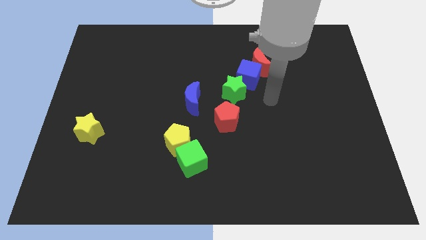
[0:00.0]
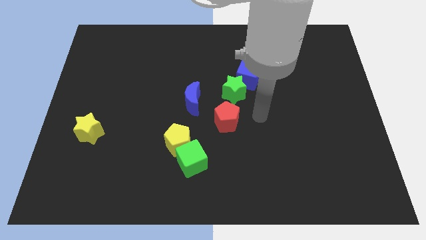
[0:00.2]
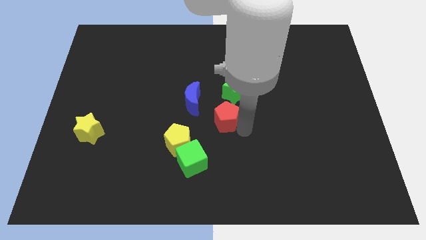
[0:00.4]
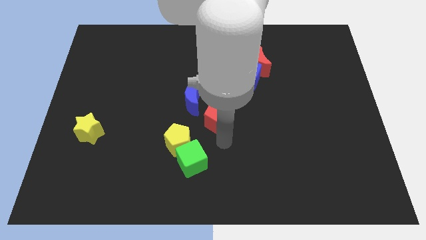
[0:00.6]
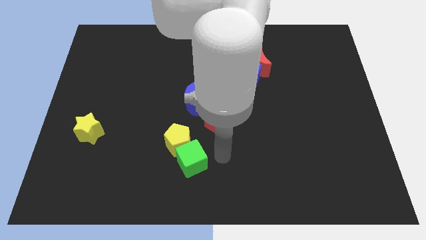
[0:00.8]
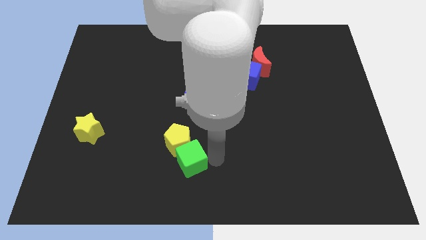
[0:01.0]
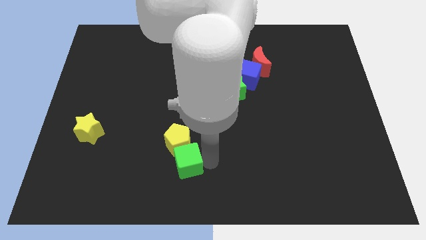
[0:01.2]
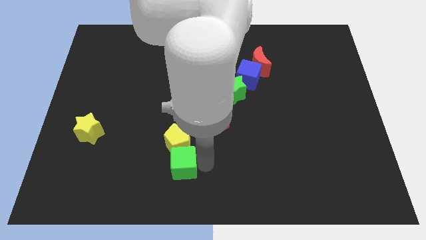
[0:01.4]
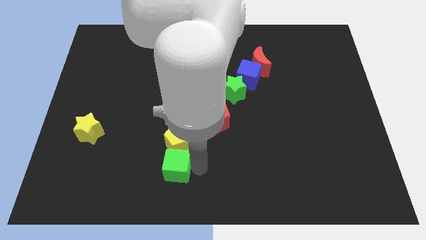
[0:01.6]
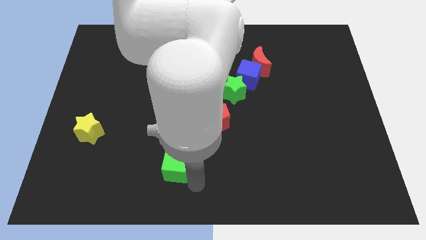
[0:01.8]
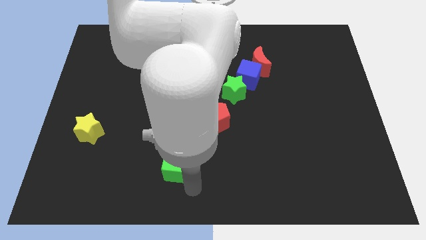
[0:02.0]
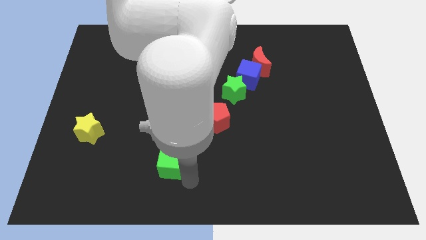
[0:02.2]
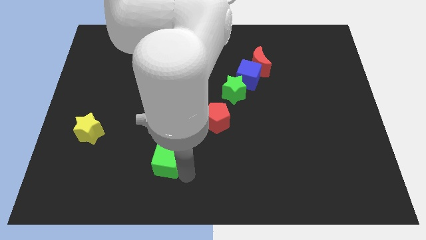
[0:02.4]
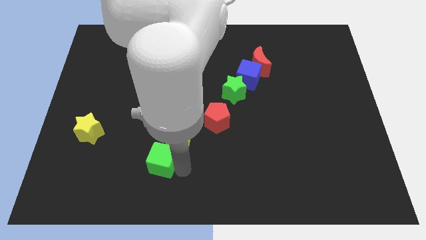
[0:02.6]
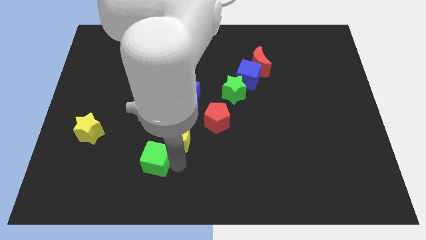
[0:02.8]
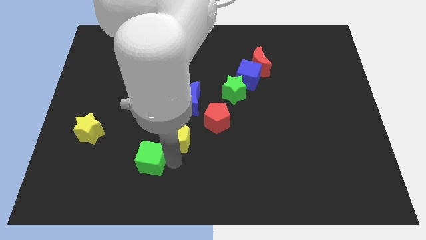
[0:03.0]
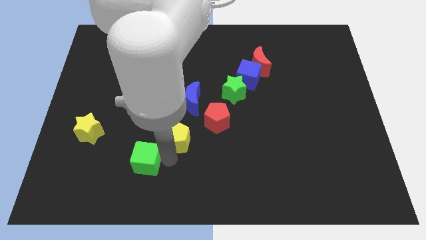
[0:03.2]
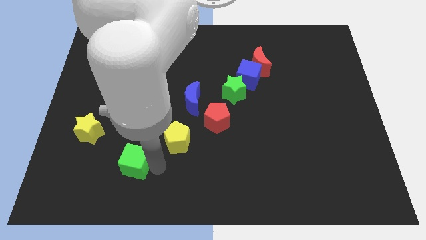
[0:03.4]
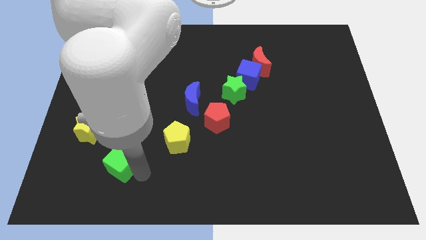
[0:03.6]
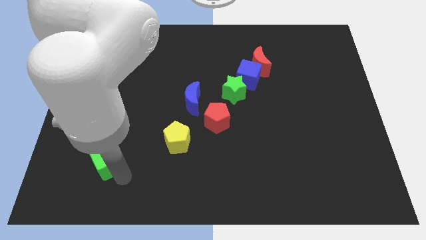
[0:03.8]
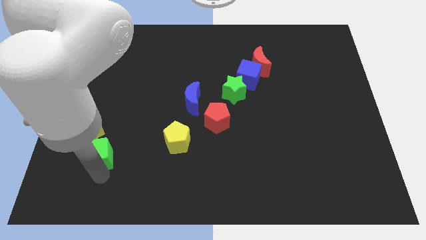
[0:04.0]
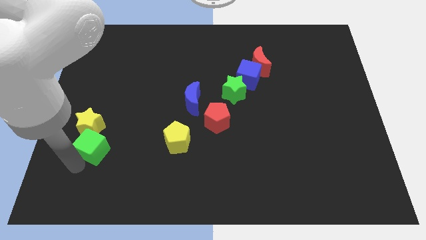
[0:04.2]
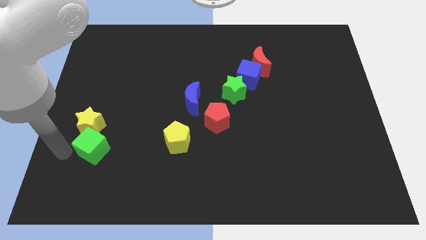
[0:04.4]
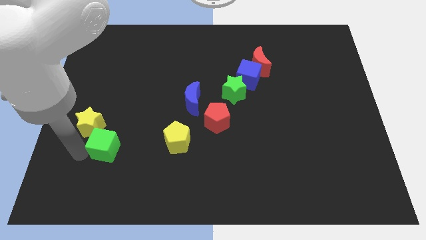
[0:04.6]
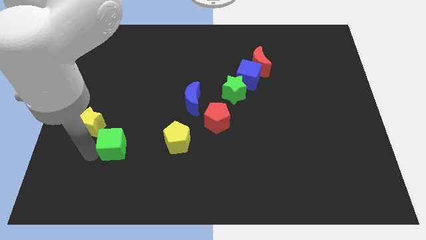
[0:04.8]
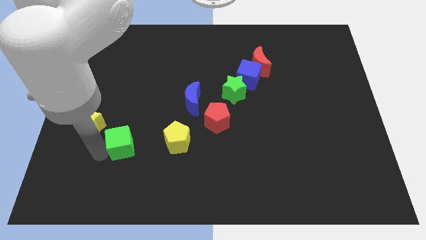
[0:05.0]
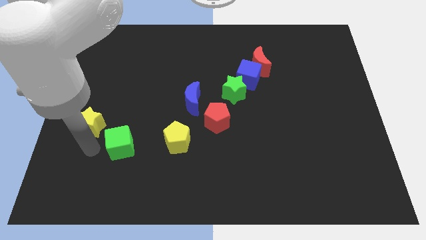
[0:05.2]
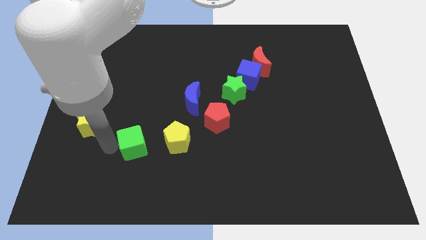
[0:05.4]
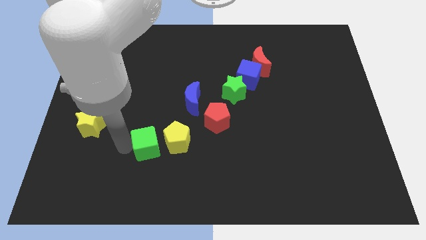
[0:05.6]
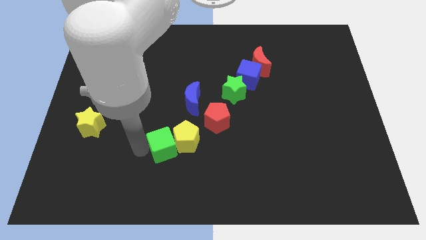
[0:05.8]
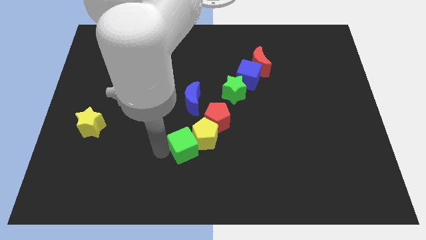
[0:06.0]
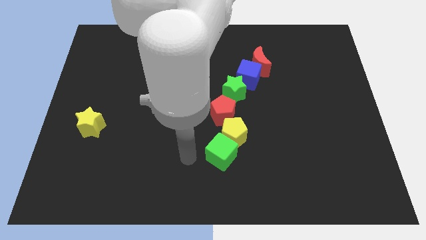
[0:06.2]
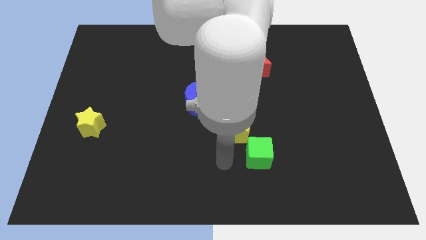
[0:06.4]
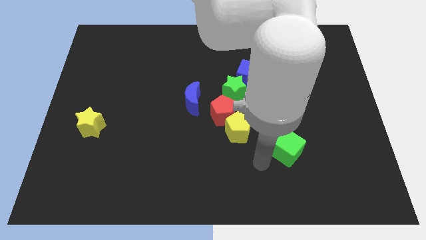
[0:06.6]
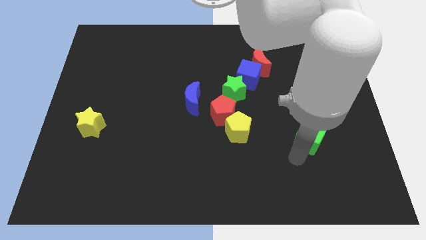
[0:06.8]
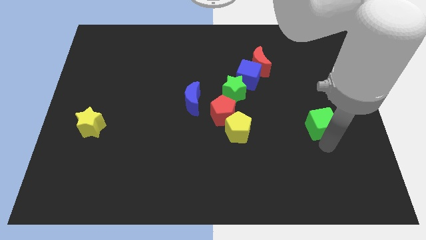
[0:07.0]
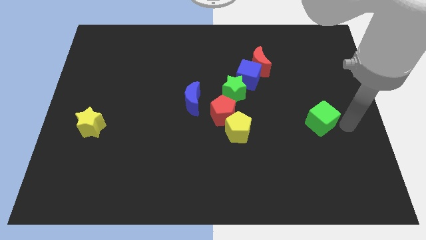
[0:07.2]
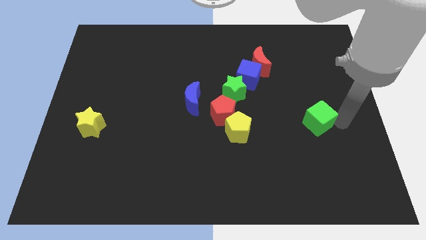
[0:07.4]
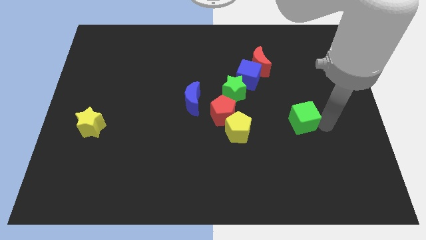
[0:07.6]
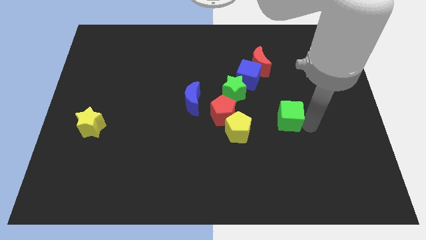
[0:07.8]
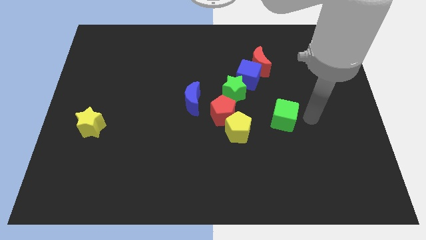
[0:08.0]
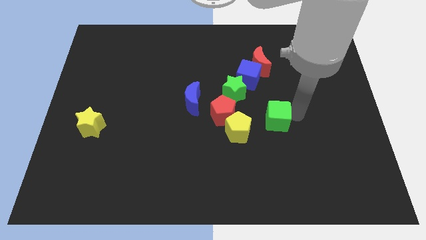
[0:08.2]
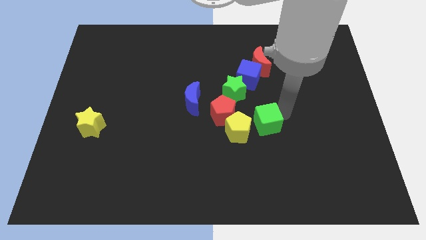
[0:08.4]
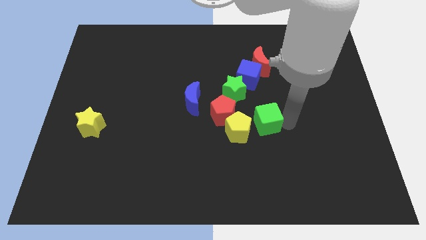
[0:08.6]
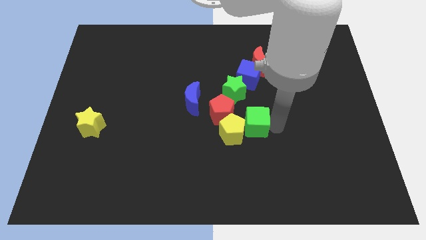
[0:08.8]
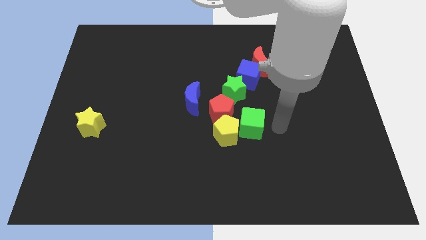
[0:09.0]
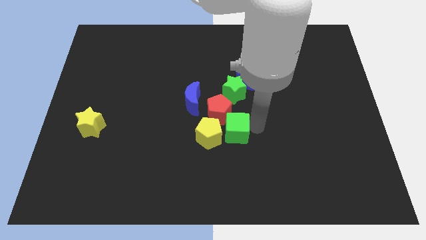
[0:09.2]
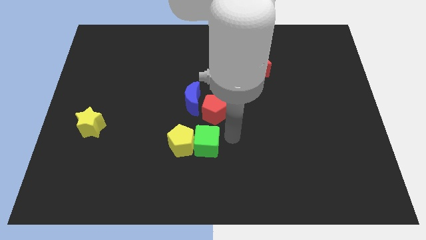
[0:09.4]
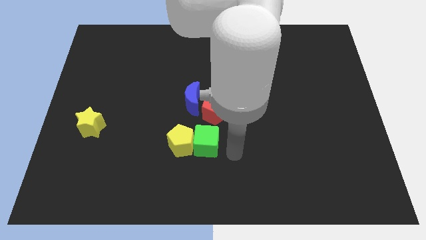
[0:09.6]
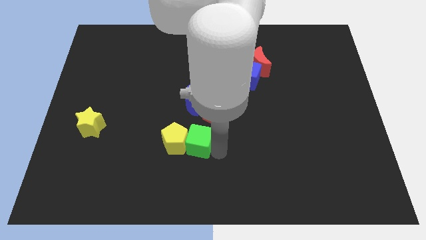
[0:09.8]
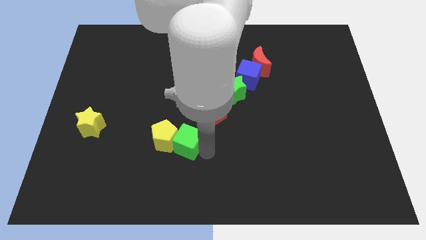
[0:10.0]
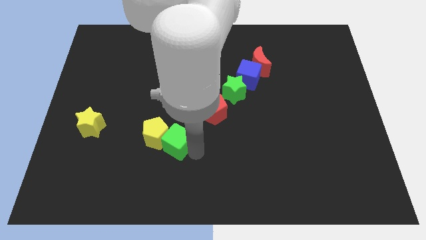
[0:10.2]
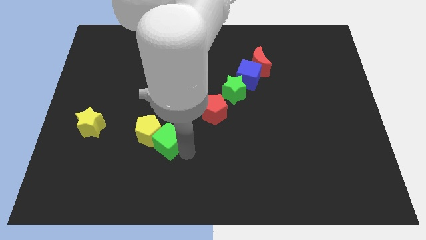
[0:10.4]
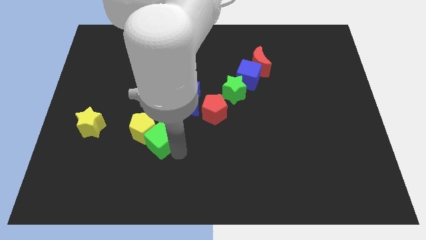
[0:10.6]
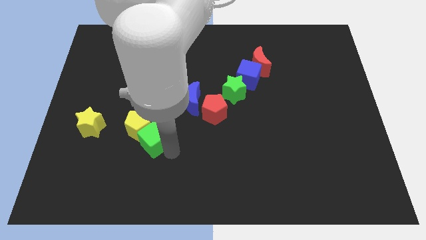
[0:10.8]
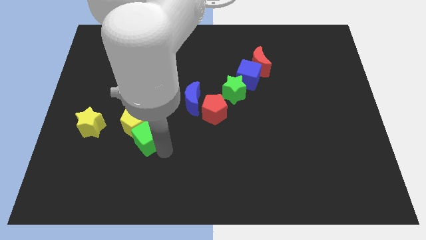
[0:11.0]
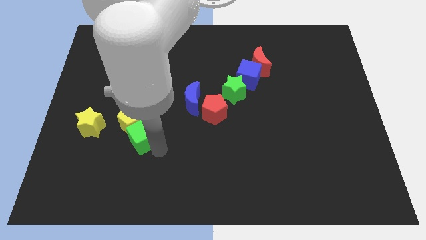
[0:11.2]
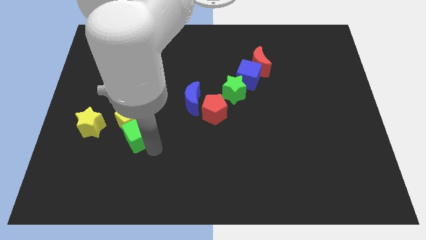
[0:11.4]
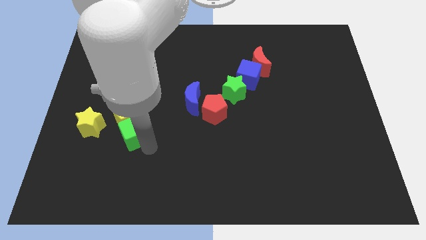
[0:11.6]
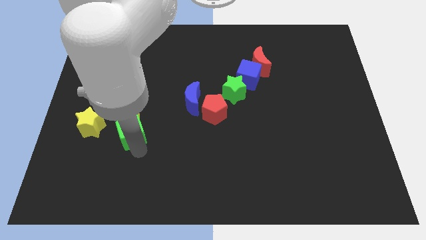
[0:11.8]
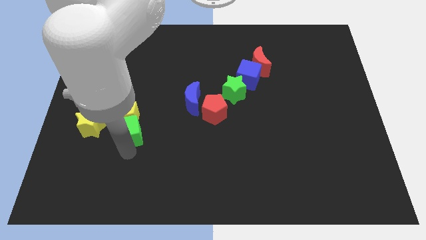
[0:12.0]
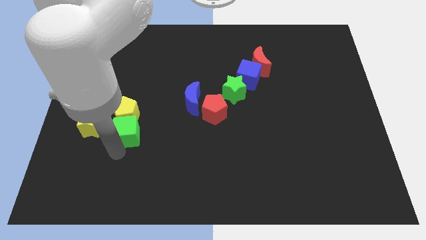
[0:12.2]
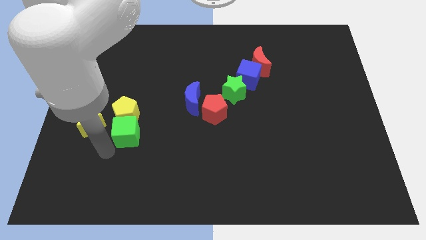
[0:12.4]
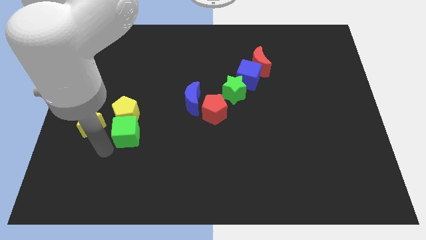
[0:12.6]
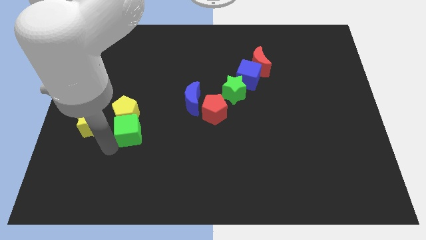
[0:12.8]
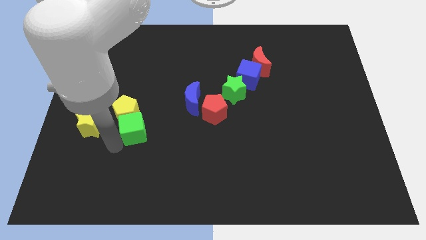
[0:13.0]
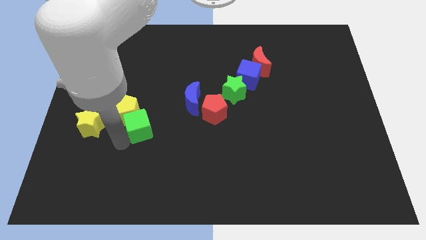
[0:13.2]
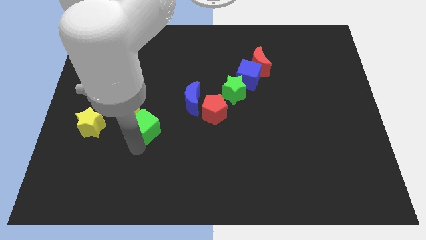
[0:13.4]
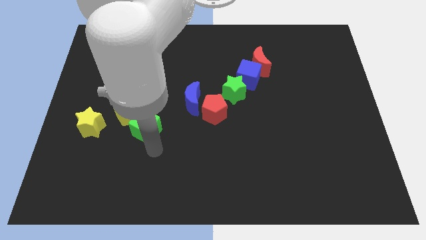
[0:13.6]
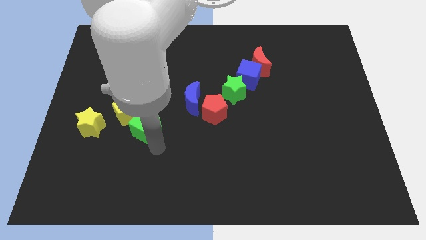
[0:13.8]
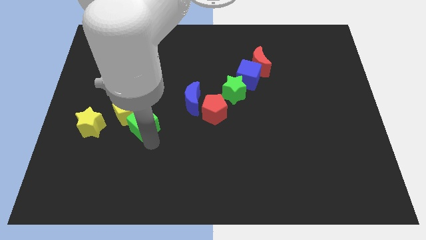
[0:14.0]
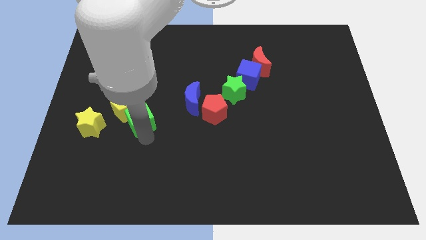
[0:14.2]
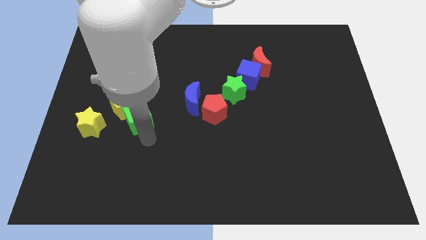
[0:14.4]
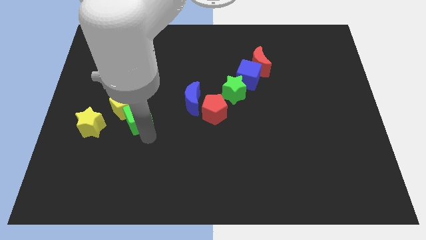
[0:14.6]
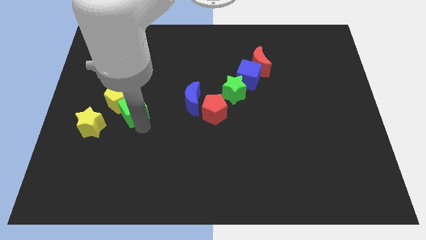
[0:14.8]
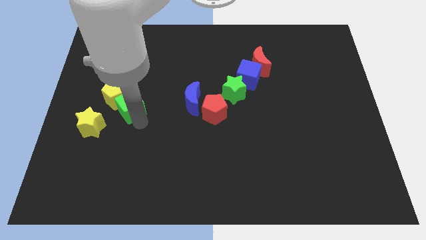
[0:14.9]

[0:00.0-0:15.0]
slide the green cube diagonally up and left
